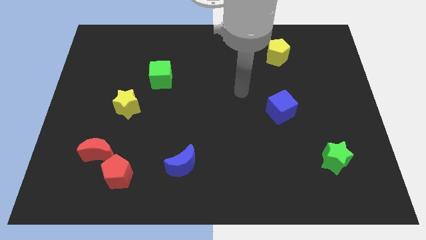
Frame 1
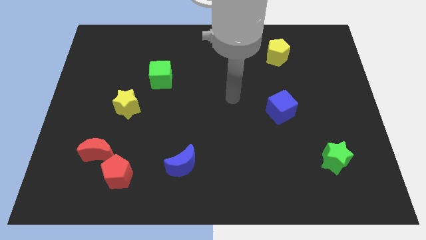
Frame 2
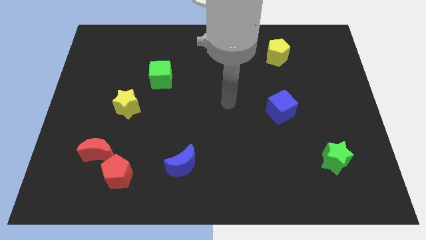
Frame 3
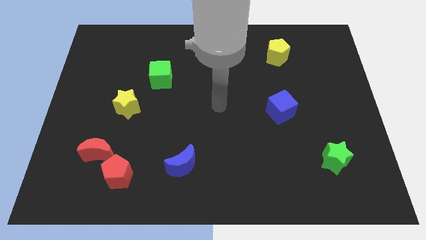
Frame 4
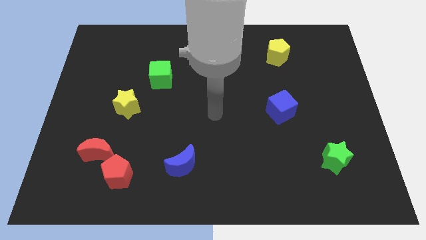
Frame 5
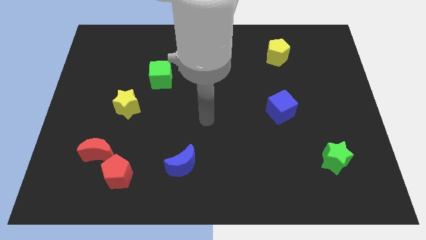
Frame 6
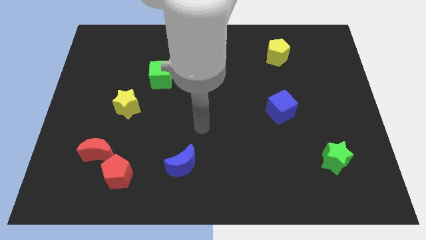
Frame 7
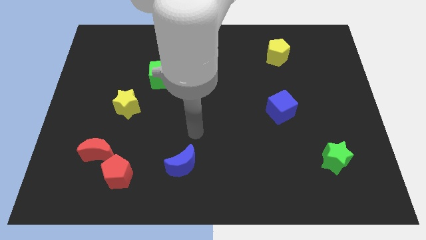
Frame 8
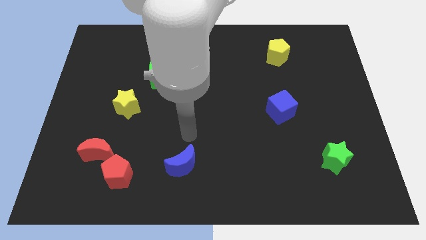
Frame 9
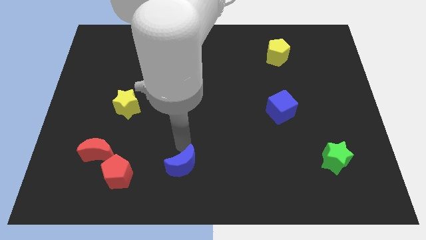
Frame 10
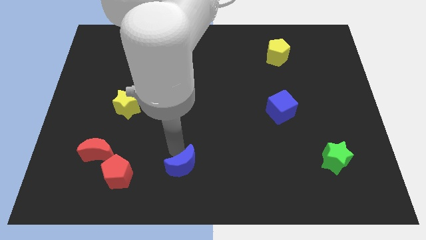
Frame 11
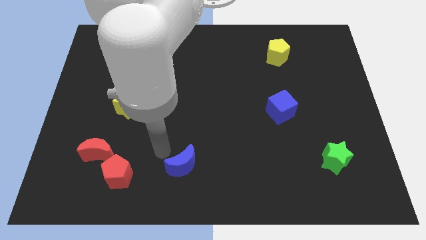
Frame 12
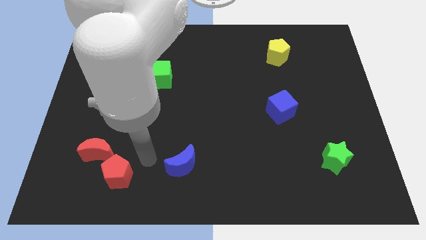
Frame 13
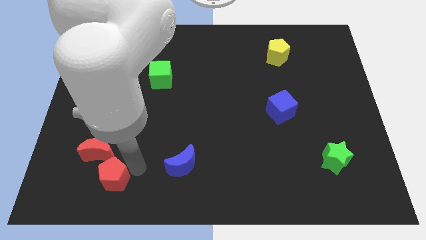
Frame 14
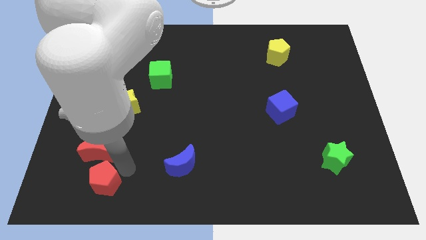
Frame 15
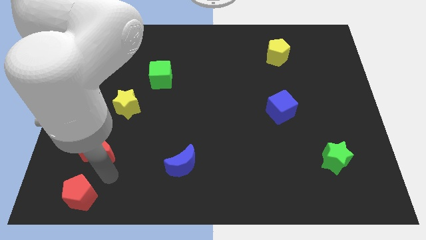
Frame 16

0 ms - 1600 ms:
move the red moon away from the red pentagon

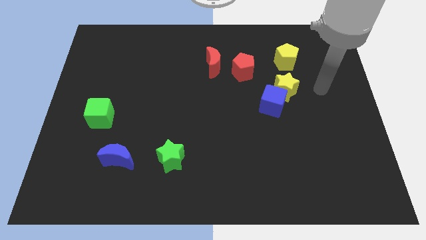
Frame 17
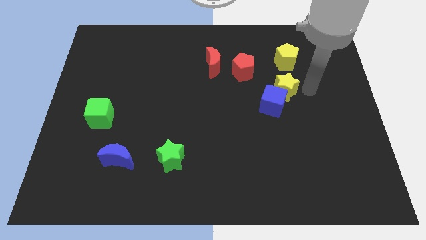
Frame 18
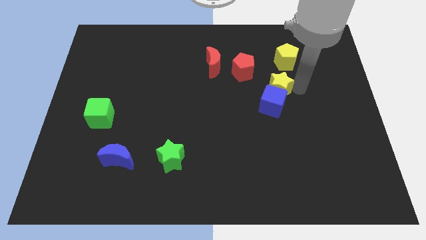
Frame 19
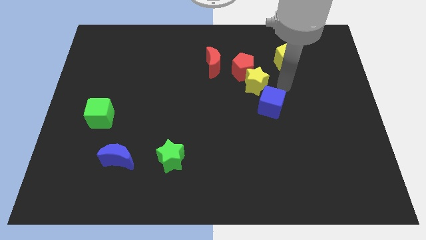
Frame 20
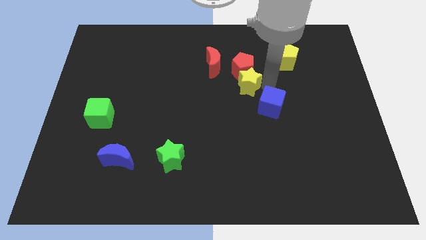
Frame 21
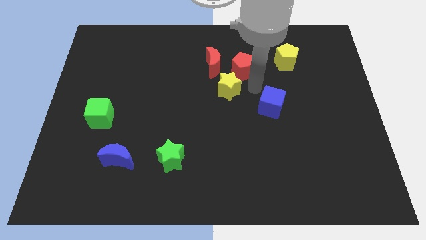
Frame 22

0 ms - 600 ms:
pull the blue cube apart from the yellow star

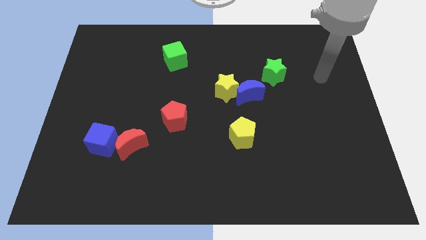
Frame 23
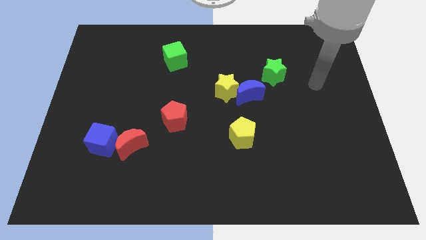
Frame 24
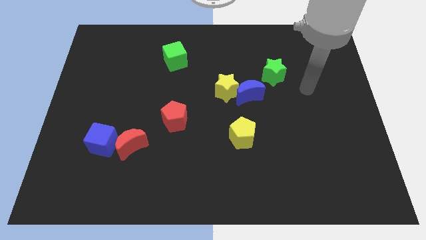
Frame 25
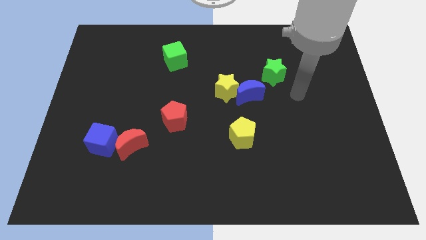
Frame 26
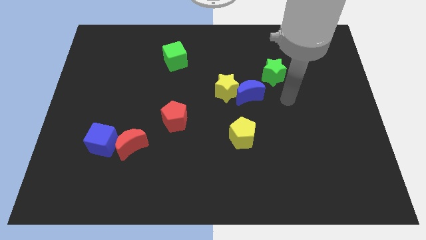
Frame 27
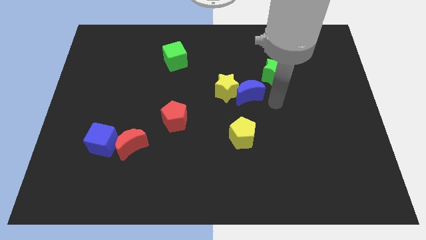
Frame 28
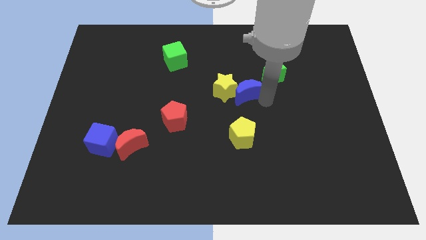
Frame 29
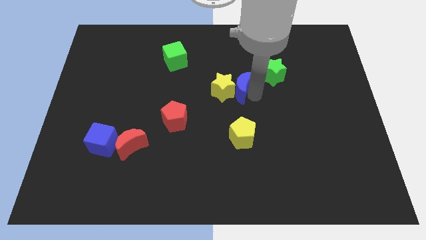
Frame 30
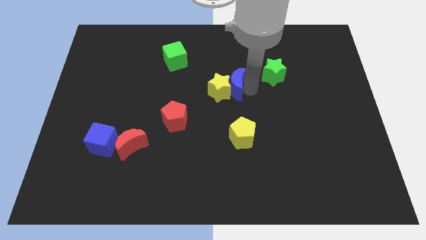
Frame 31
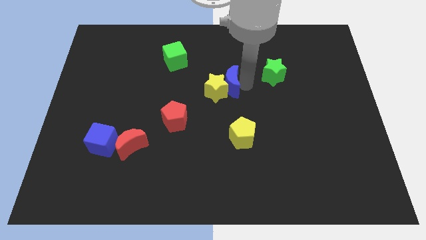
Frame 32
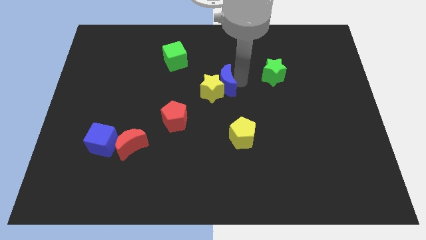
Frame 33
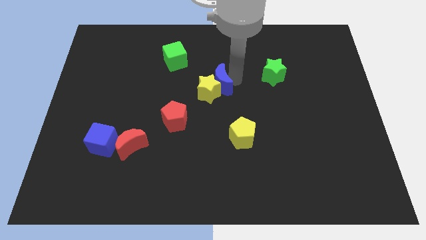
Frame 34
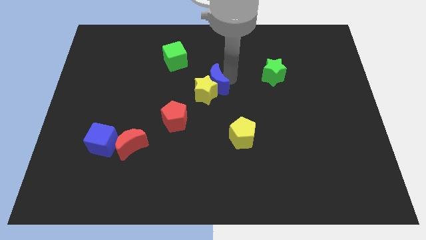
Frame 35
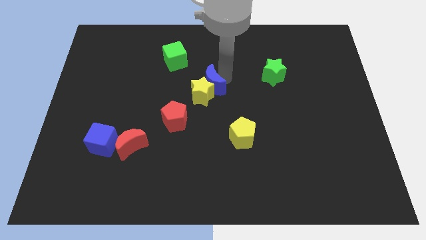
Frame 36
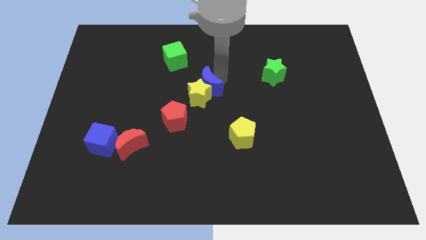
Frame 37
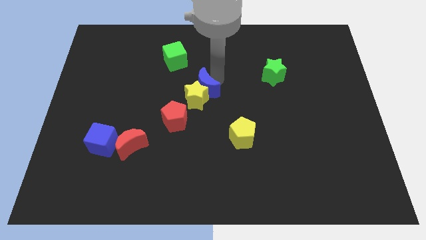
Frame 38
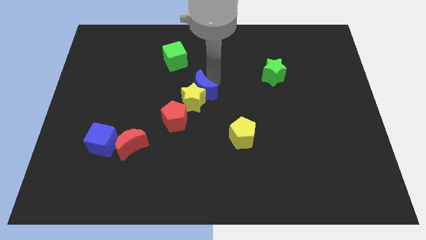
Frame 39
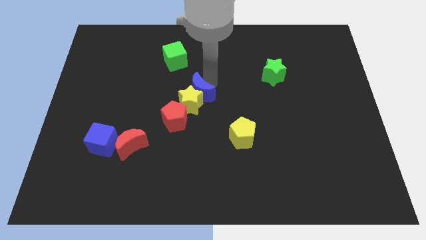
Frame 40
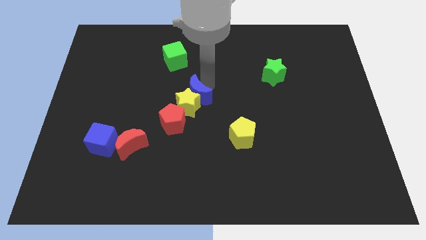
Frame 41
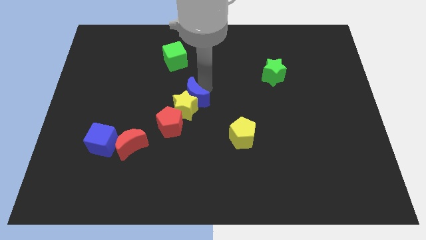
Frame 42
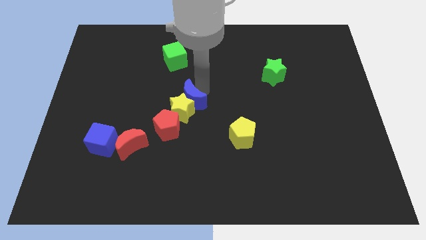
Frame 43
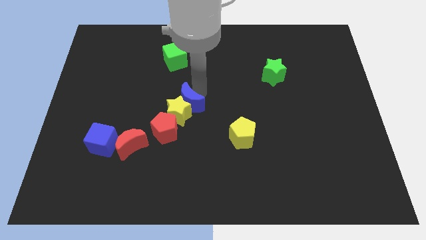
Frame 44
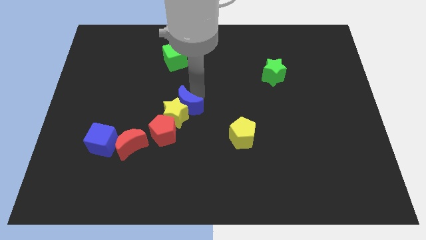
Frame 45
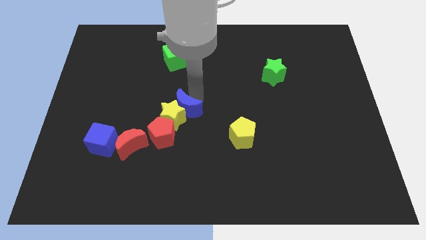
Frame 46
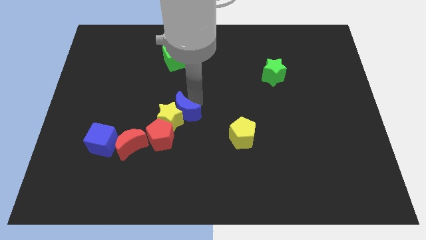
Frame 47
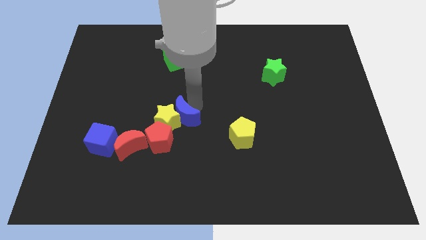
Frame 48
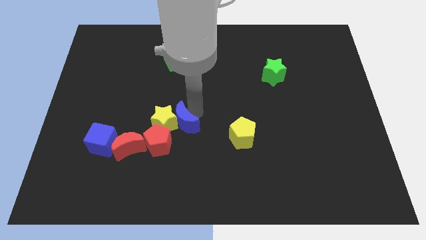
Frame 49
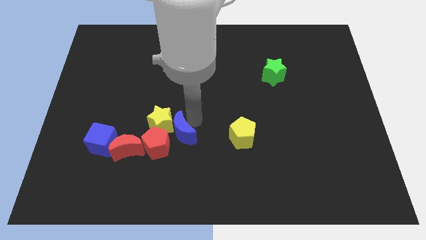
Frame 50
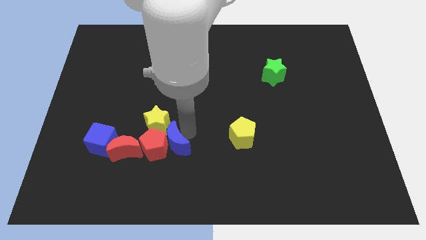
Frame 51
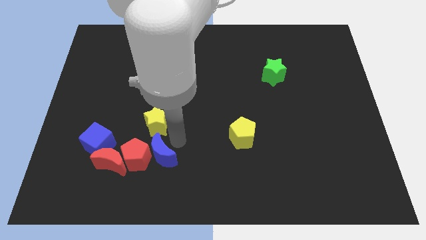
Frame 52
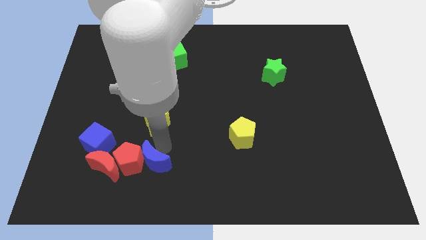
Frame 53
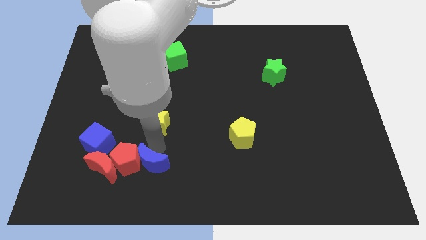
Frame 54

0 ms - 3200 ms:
separate the yellow star from the blue moon

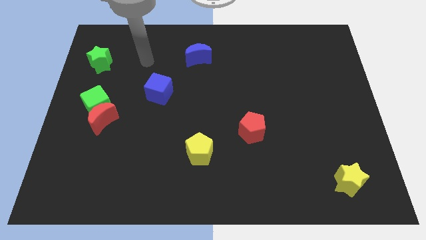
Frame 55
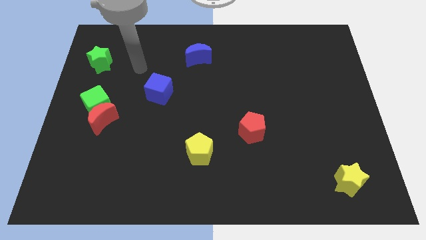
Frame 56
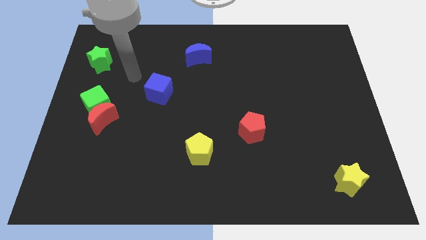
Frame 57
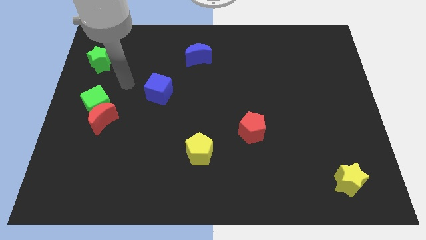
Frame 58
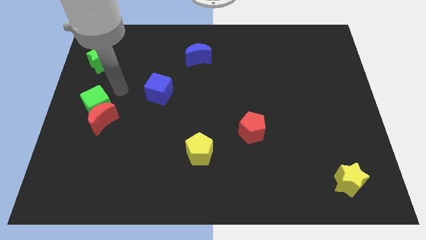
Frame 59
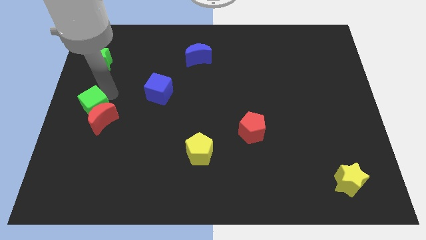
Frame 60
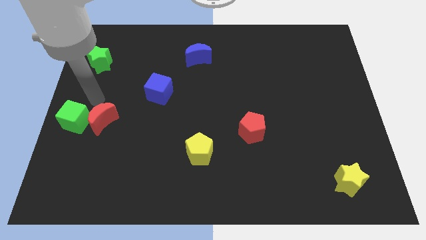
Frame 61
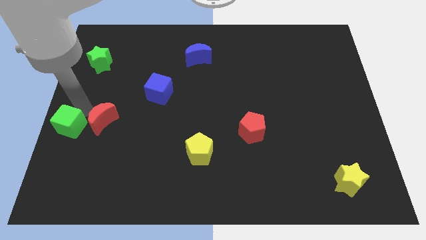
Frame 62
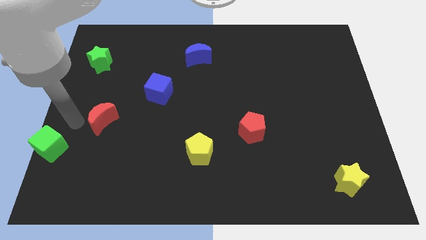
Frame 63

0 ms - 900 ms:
move the red moon away from the green cube

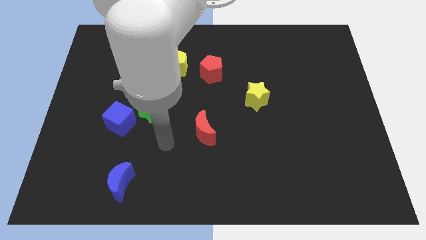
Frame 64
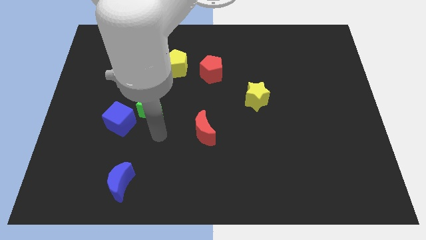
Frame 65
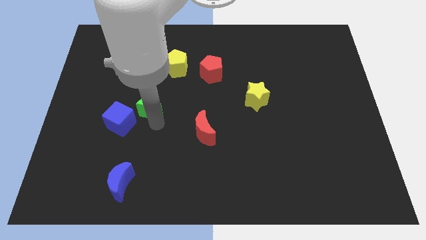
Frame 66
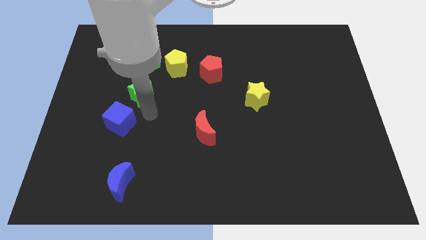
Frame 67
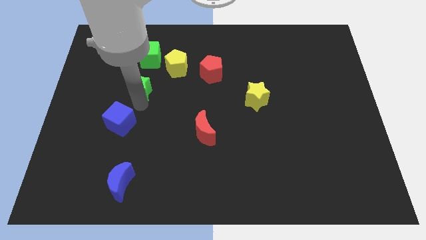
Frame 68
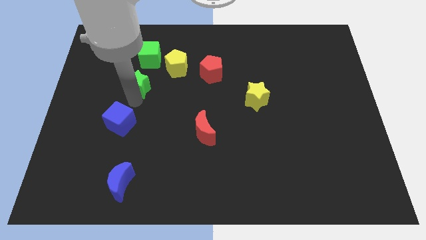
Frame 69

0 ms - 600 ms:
pull the blue cube apart from the green star

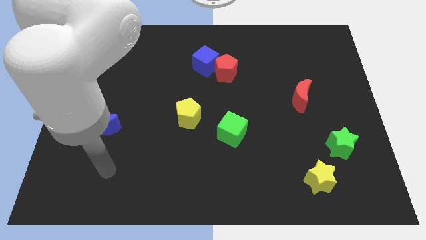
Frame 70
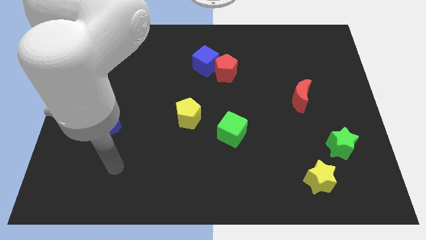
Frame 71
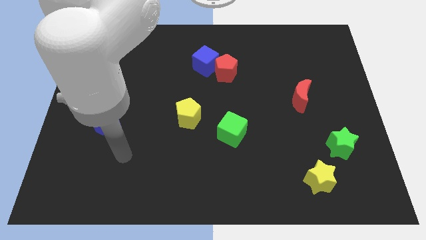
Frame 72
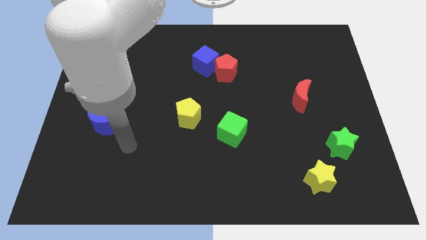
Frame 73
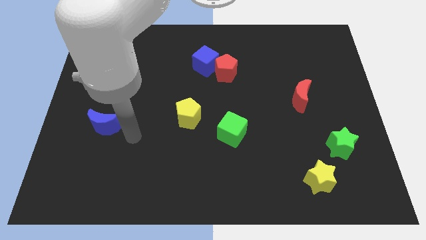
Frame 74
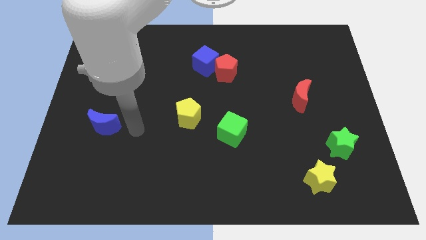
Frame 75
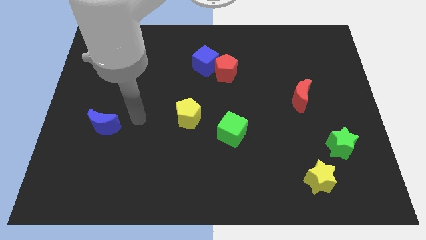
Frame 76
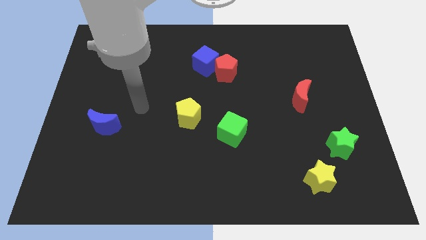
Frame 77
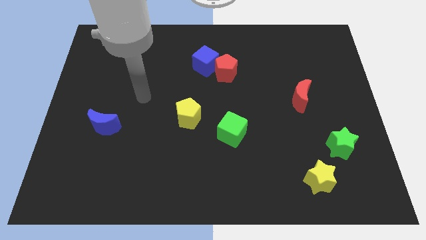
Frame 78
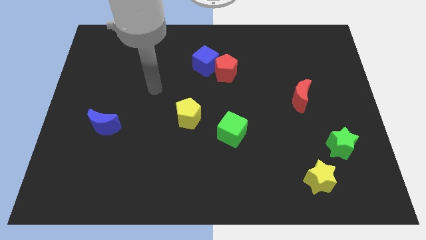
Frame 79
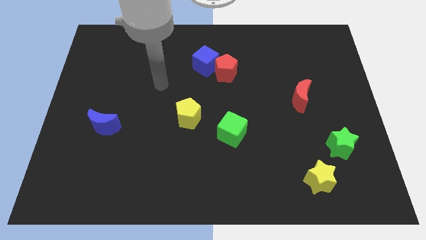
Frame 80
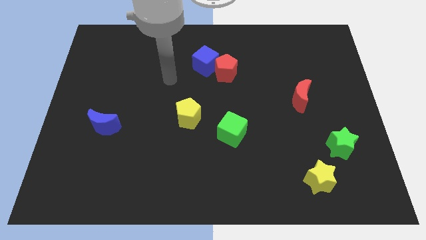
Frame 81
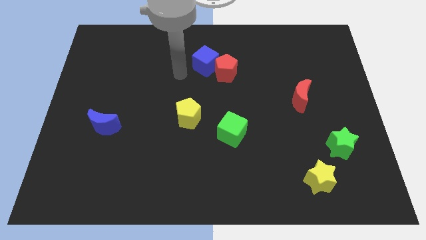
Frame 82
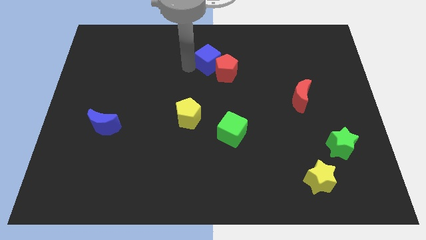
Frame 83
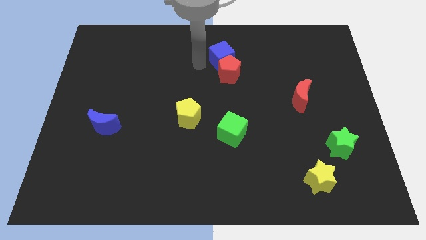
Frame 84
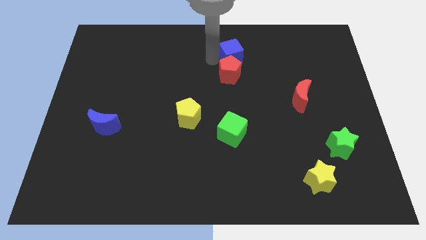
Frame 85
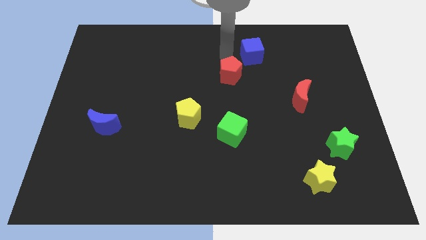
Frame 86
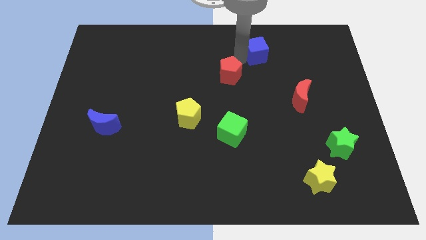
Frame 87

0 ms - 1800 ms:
separate the red pentagon from the blue cube

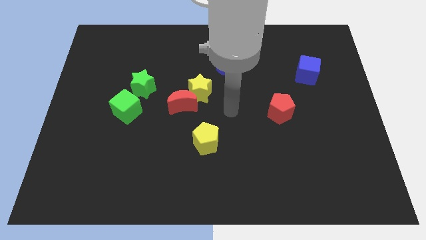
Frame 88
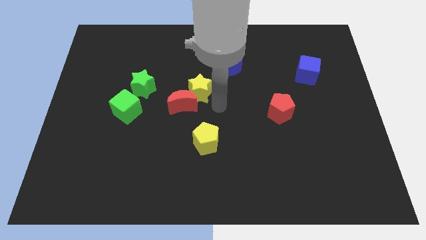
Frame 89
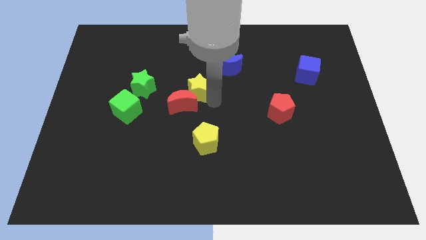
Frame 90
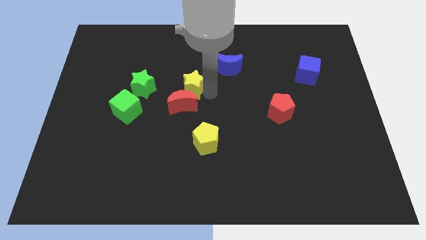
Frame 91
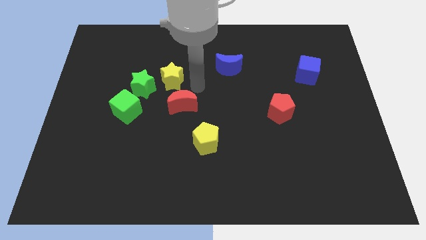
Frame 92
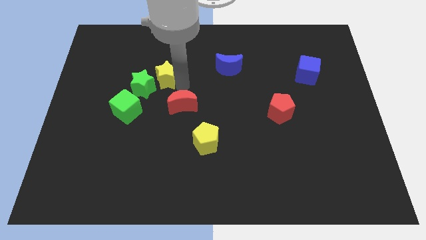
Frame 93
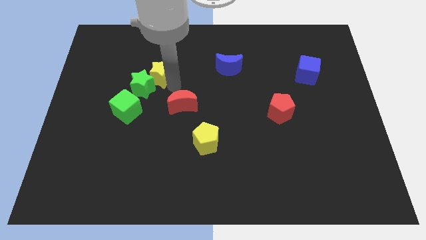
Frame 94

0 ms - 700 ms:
pull the red moon apart from the yellow star
